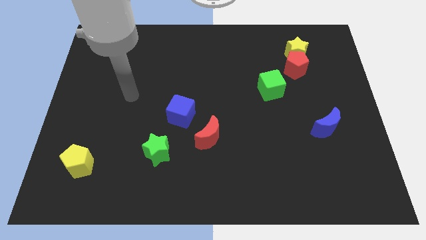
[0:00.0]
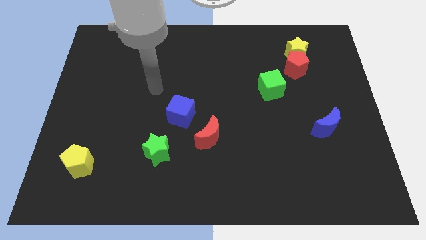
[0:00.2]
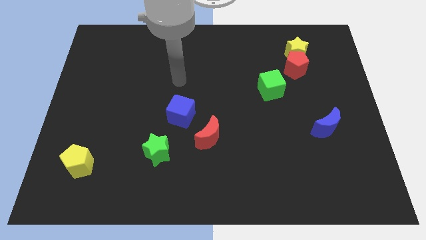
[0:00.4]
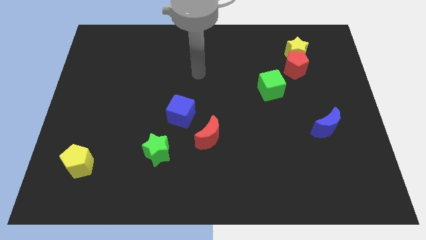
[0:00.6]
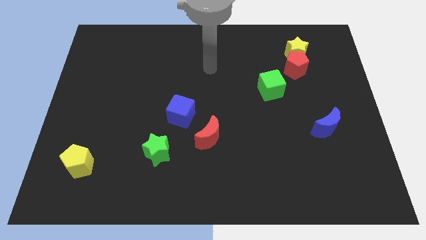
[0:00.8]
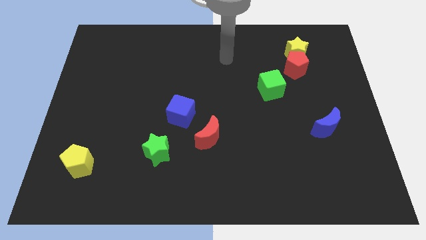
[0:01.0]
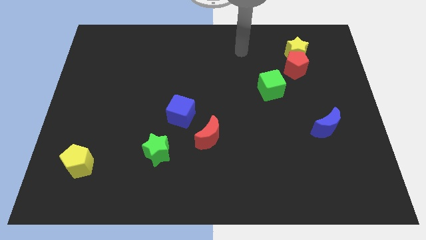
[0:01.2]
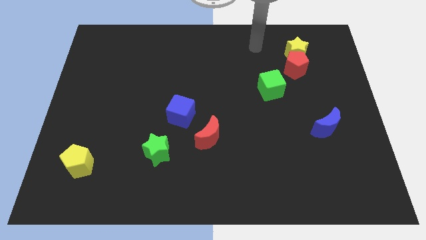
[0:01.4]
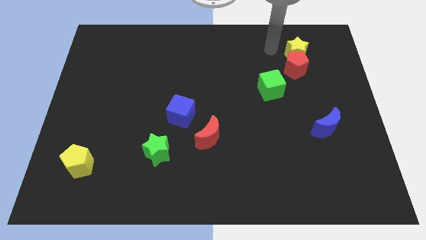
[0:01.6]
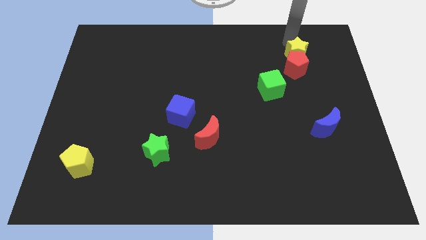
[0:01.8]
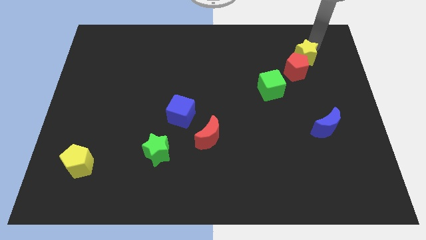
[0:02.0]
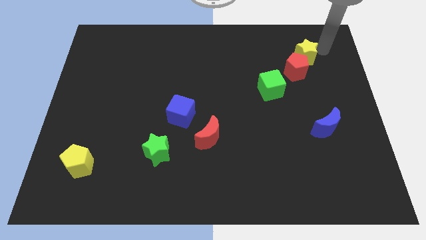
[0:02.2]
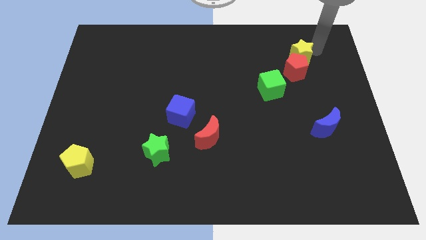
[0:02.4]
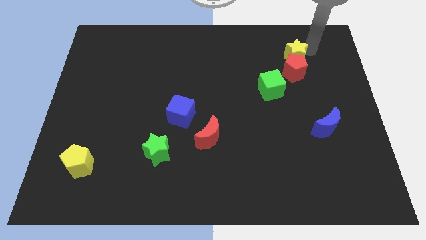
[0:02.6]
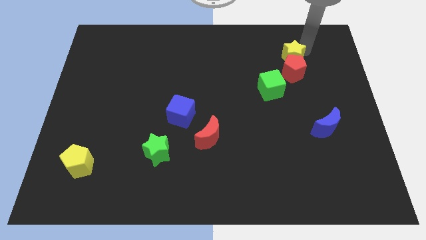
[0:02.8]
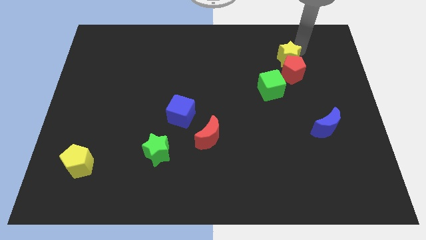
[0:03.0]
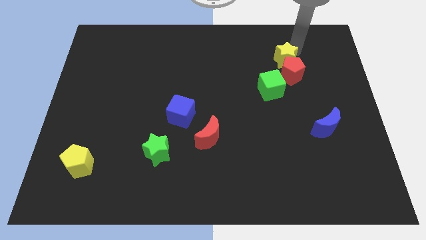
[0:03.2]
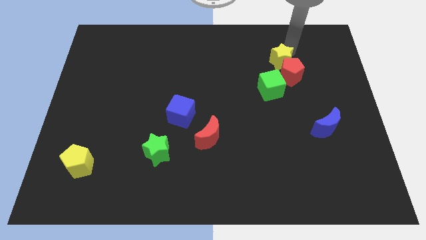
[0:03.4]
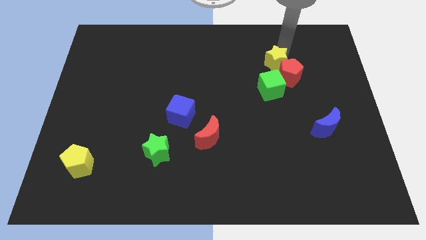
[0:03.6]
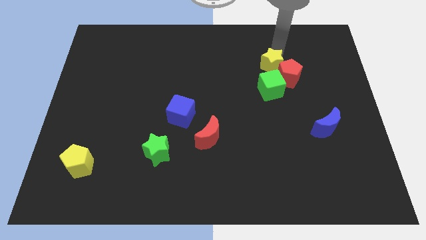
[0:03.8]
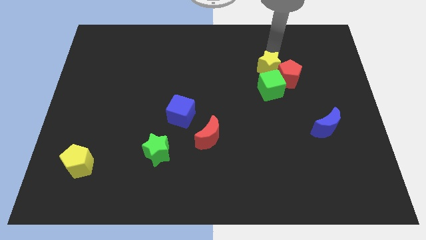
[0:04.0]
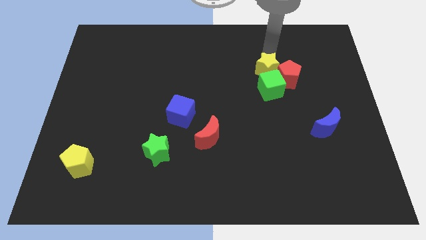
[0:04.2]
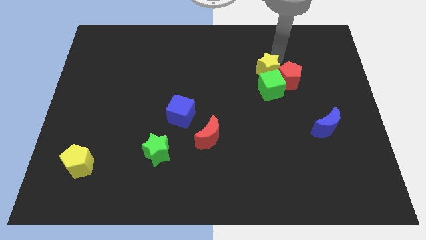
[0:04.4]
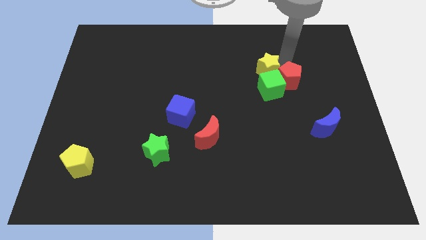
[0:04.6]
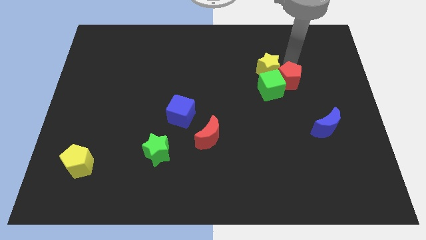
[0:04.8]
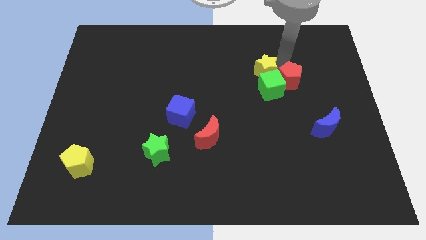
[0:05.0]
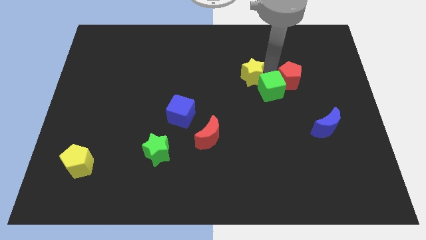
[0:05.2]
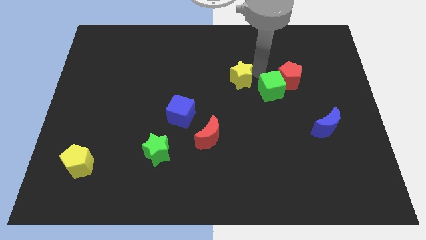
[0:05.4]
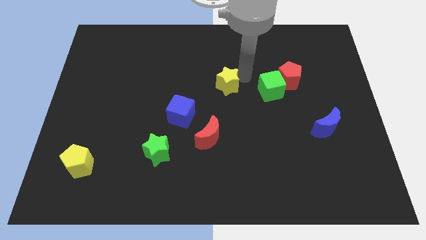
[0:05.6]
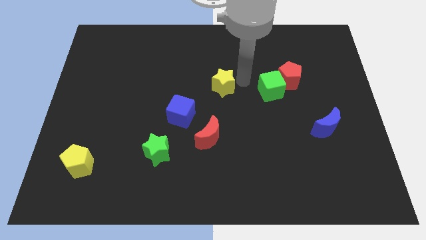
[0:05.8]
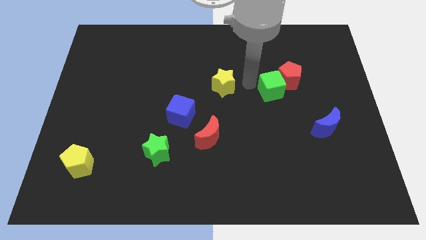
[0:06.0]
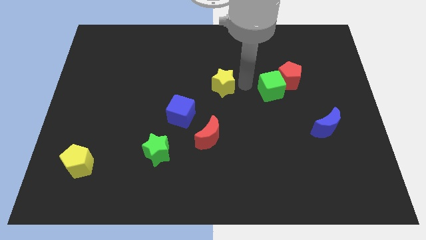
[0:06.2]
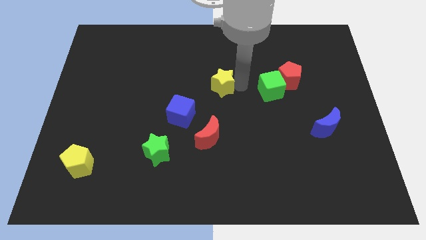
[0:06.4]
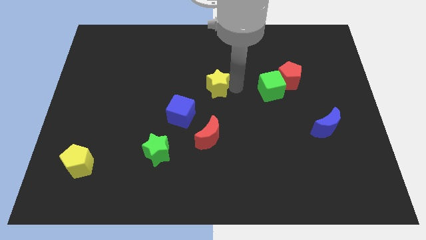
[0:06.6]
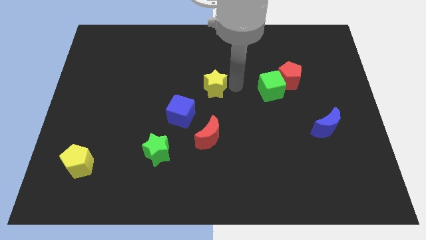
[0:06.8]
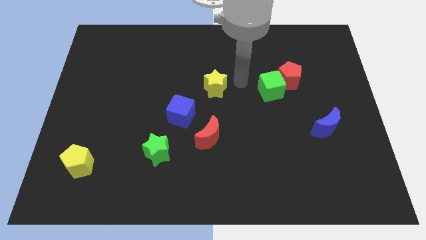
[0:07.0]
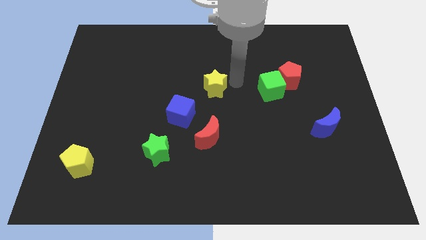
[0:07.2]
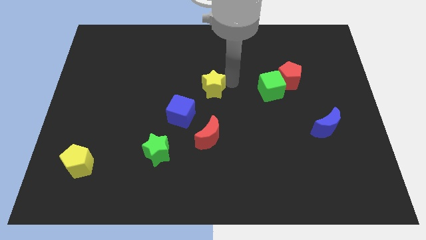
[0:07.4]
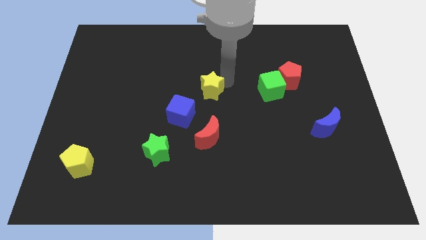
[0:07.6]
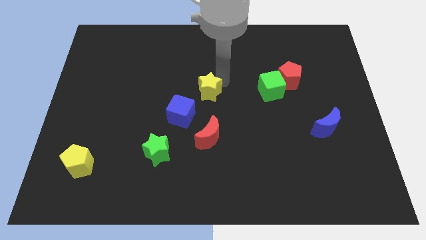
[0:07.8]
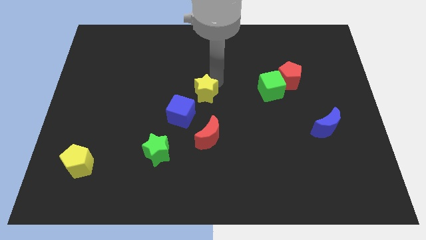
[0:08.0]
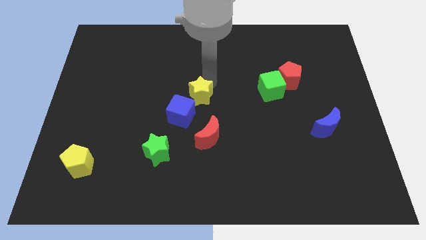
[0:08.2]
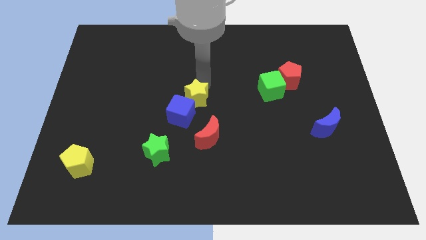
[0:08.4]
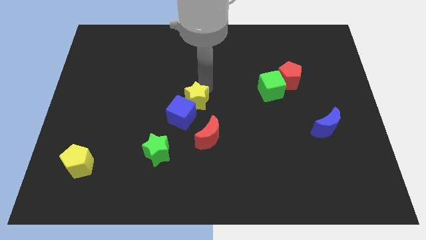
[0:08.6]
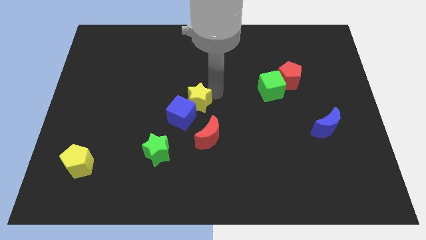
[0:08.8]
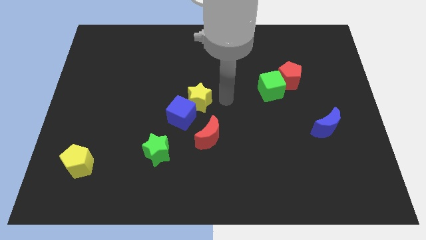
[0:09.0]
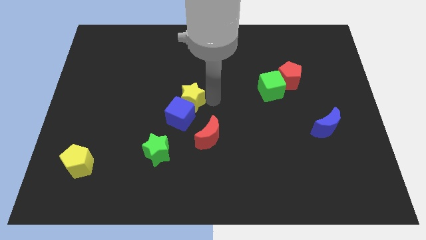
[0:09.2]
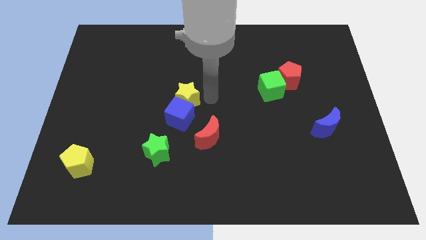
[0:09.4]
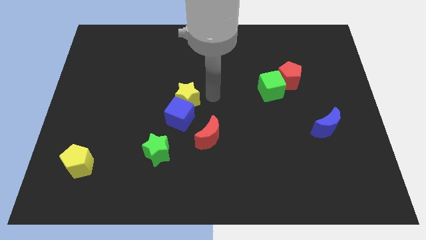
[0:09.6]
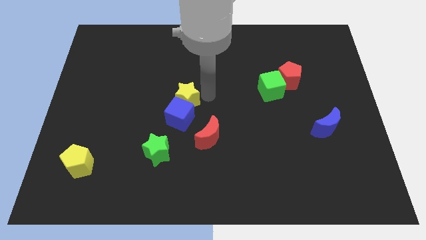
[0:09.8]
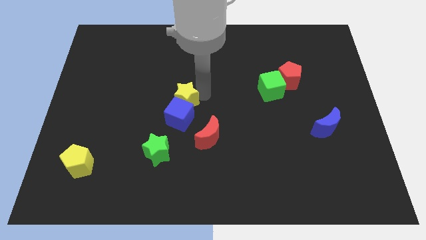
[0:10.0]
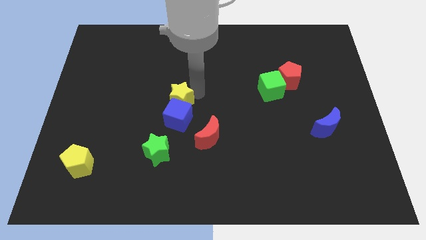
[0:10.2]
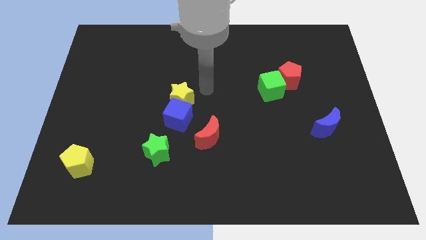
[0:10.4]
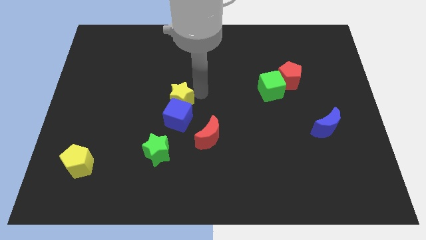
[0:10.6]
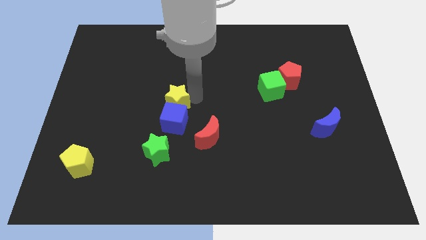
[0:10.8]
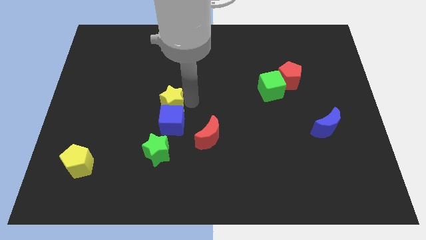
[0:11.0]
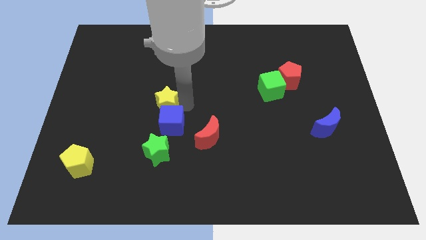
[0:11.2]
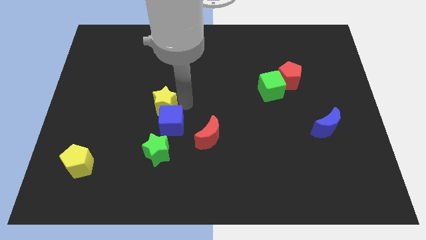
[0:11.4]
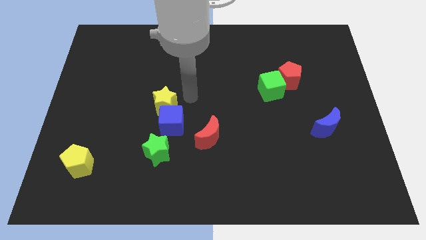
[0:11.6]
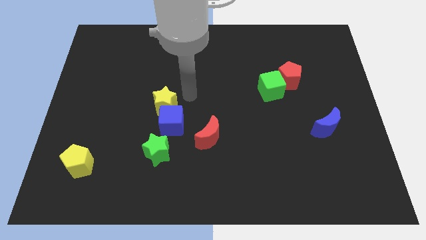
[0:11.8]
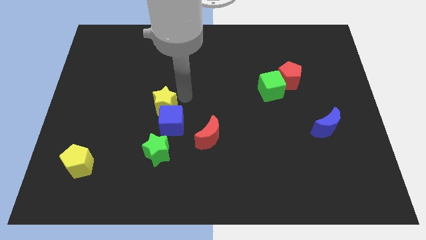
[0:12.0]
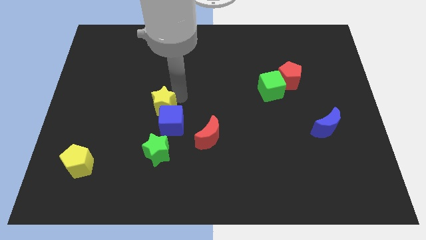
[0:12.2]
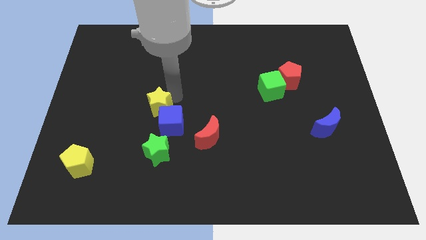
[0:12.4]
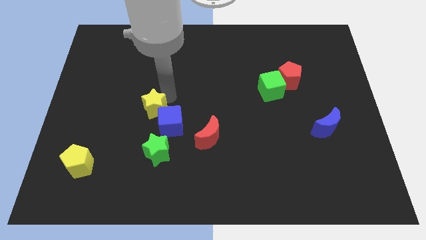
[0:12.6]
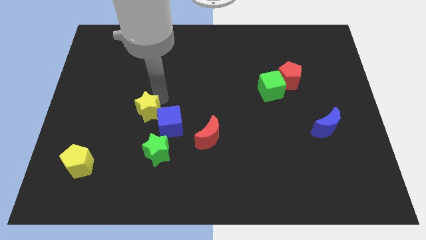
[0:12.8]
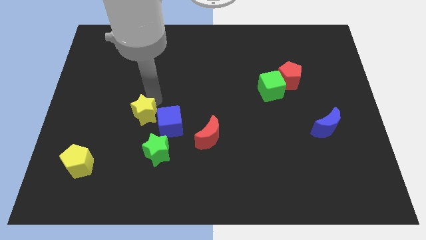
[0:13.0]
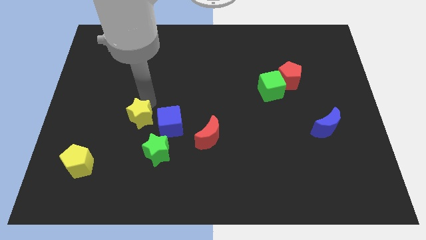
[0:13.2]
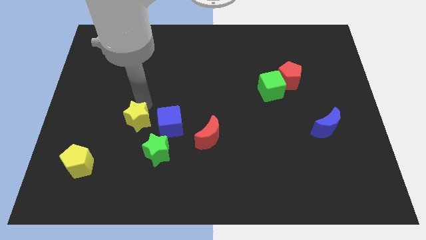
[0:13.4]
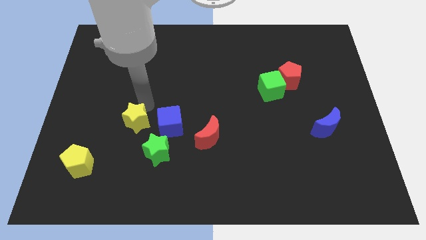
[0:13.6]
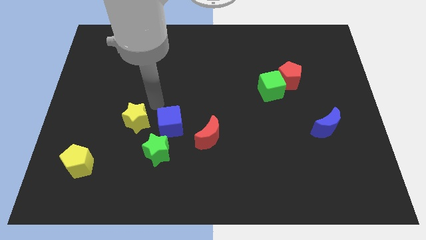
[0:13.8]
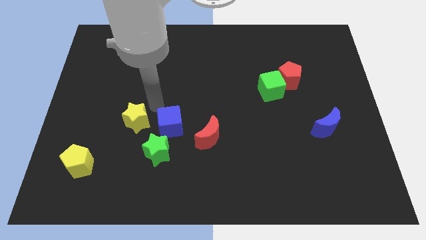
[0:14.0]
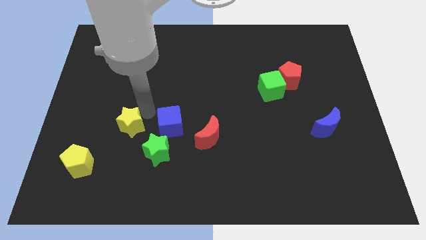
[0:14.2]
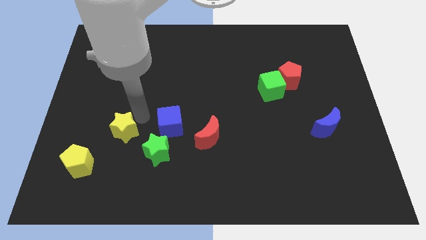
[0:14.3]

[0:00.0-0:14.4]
put the yellow star to the top right of the yellow pentagon

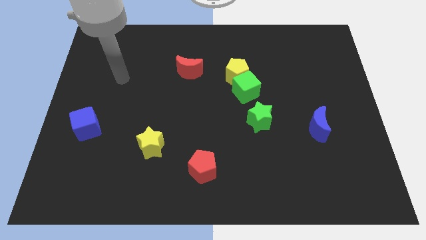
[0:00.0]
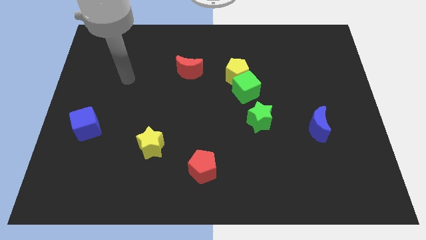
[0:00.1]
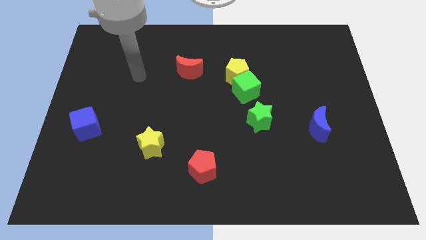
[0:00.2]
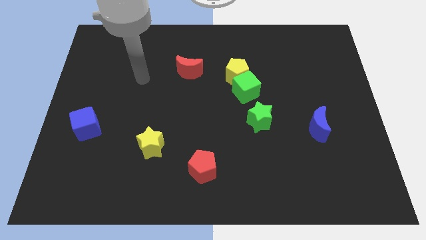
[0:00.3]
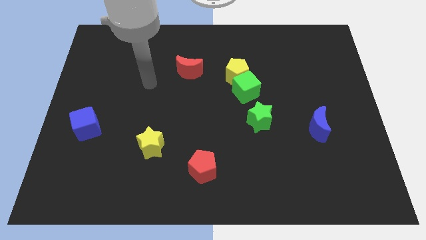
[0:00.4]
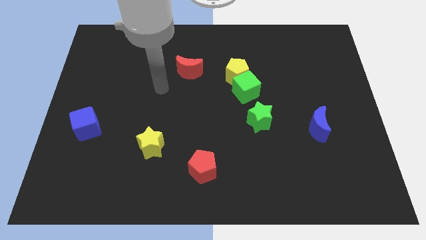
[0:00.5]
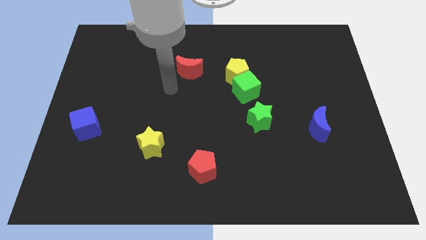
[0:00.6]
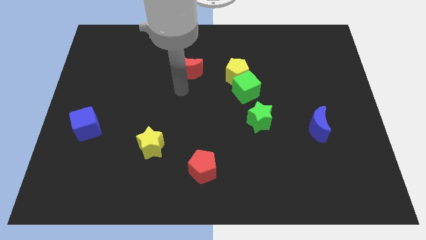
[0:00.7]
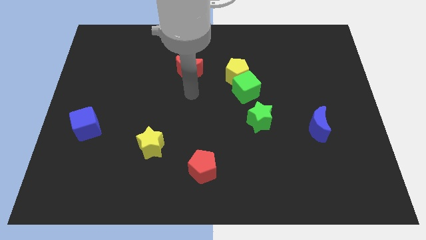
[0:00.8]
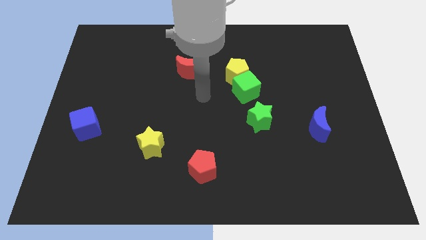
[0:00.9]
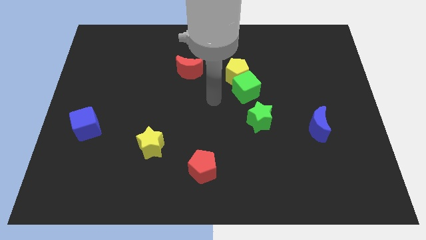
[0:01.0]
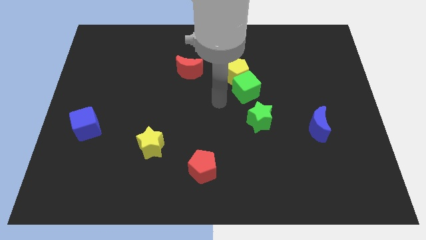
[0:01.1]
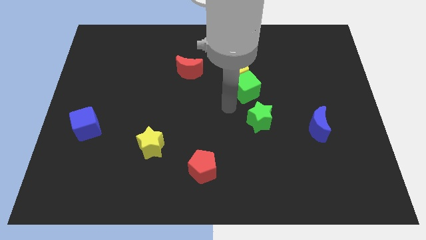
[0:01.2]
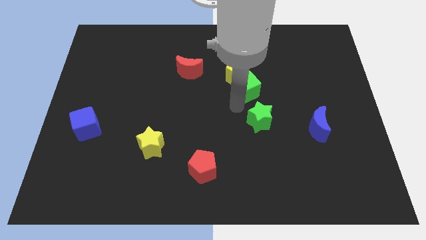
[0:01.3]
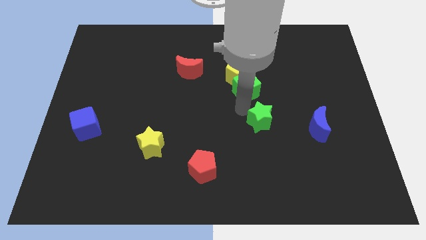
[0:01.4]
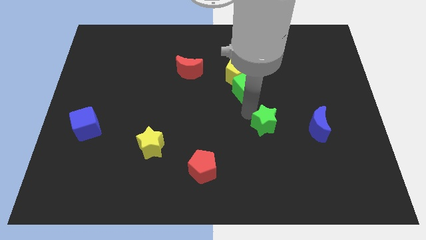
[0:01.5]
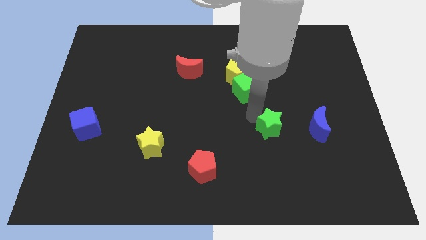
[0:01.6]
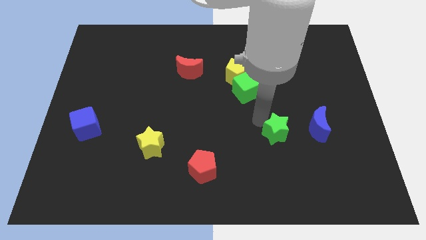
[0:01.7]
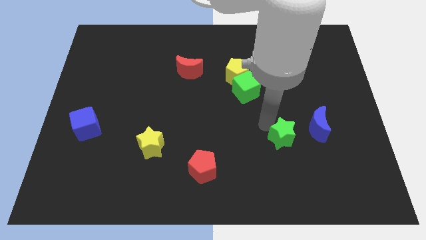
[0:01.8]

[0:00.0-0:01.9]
put the green star diagonally down and to the left of the blue moon
